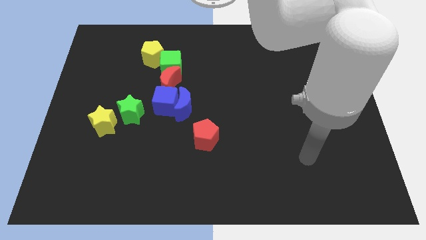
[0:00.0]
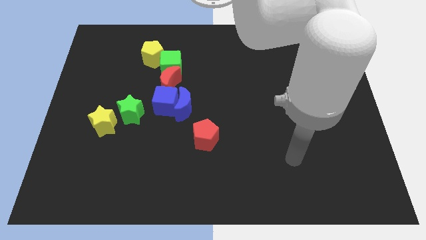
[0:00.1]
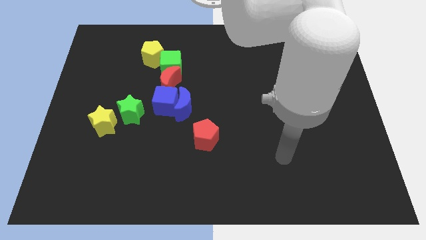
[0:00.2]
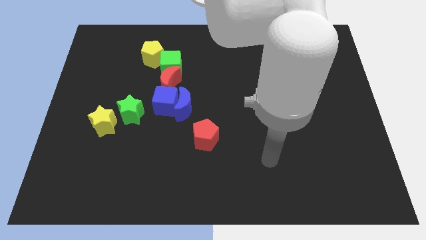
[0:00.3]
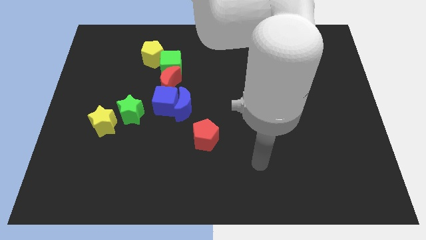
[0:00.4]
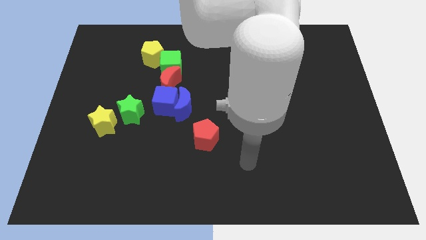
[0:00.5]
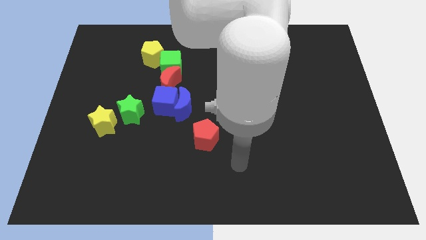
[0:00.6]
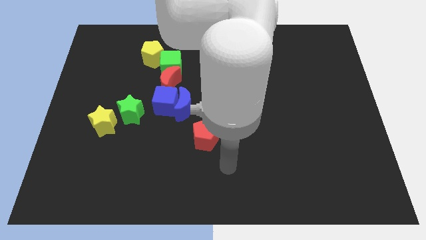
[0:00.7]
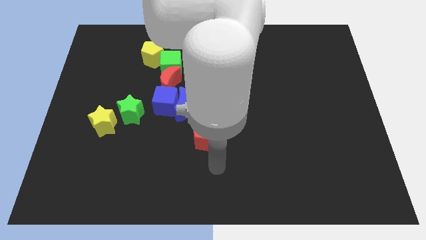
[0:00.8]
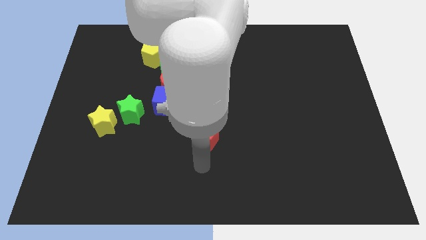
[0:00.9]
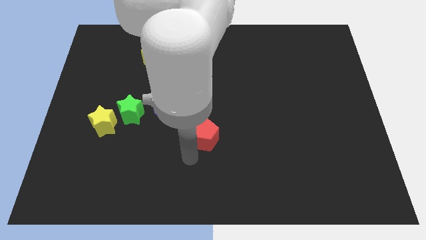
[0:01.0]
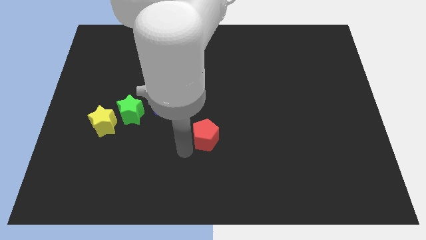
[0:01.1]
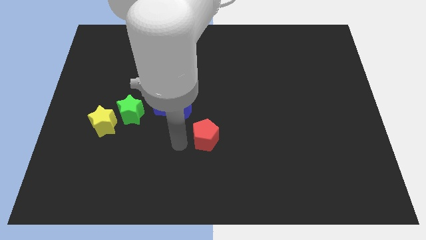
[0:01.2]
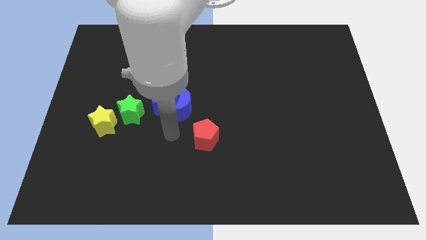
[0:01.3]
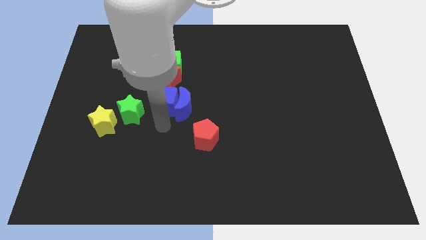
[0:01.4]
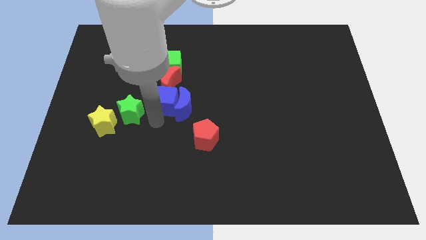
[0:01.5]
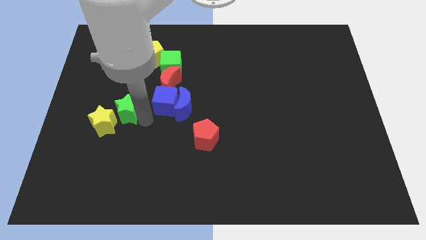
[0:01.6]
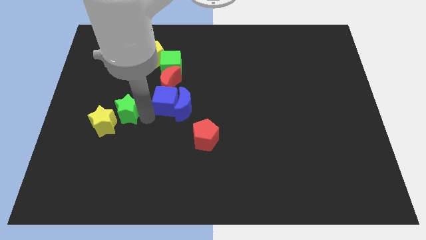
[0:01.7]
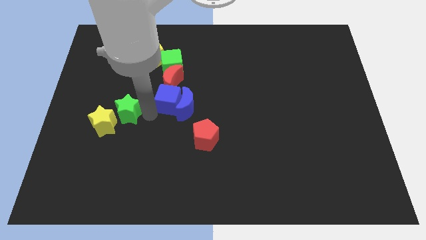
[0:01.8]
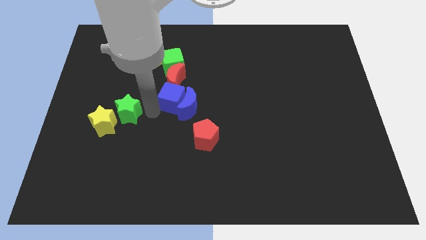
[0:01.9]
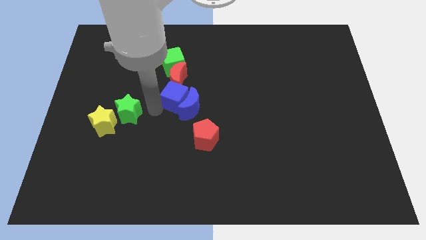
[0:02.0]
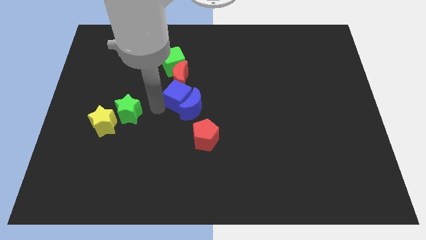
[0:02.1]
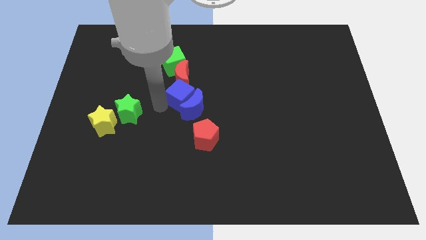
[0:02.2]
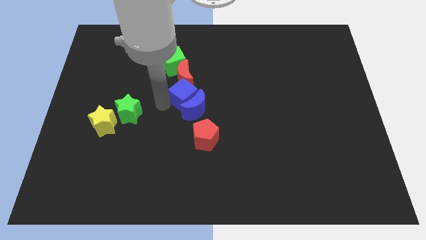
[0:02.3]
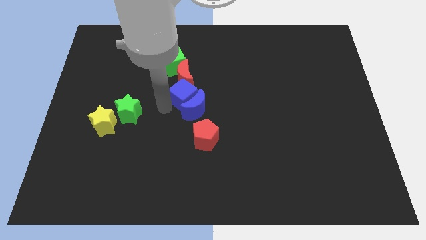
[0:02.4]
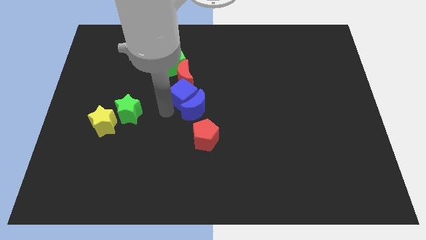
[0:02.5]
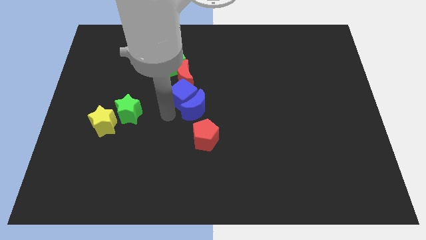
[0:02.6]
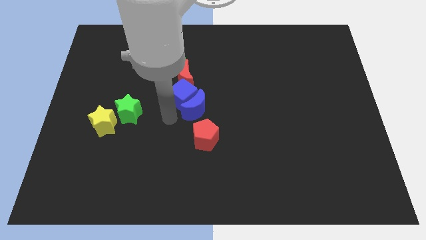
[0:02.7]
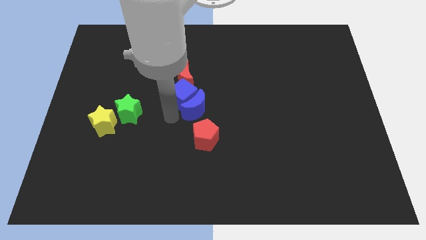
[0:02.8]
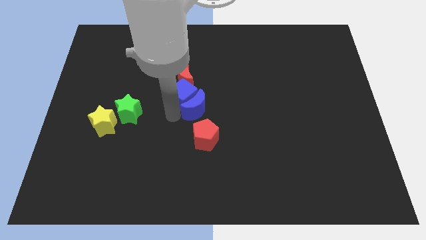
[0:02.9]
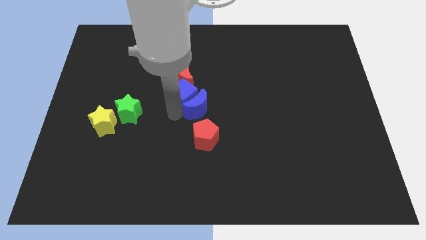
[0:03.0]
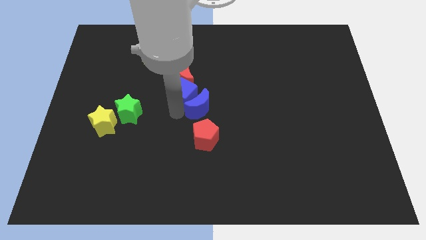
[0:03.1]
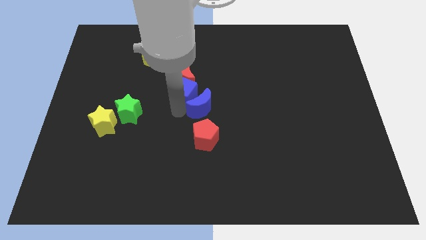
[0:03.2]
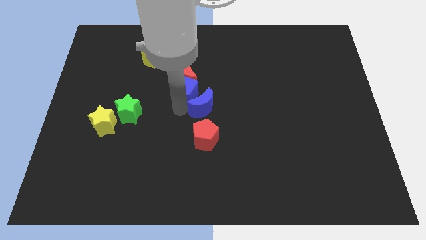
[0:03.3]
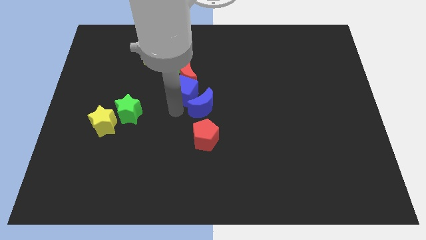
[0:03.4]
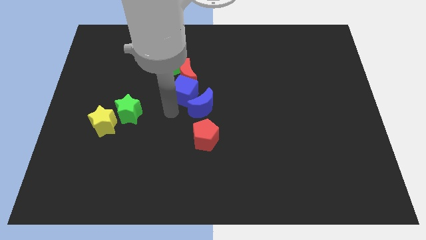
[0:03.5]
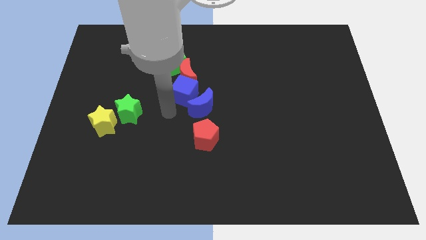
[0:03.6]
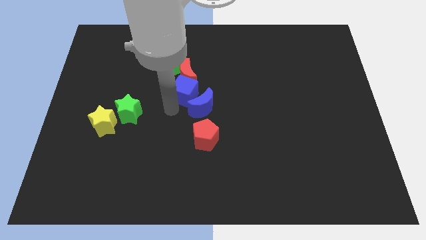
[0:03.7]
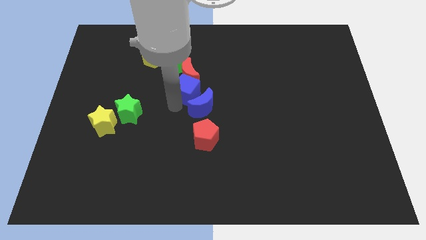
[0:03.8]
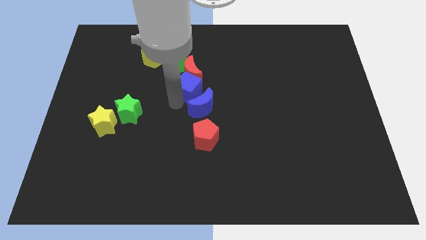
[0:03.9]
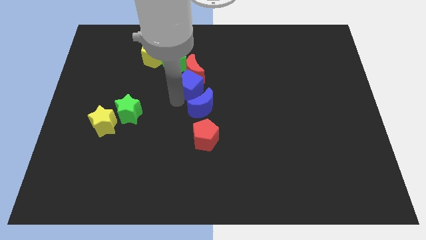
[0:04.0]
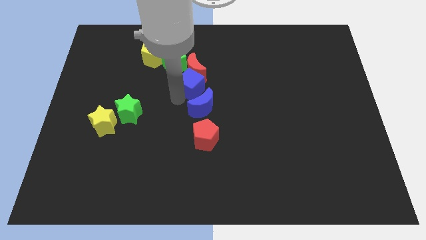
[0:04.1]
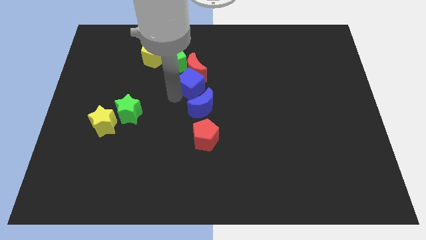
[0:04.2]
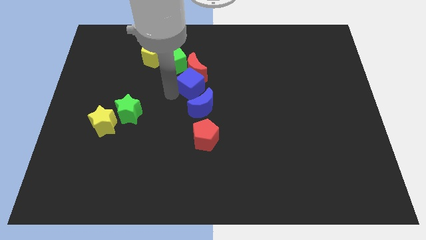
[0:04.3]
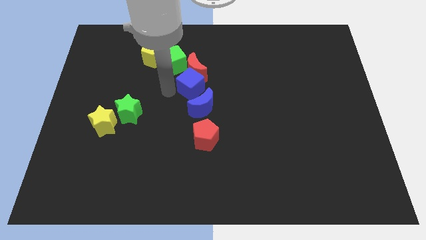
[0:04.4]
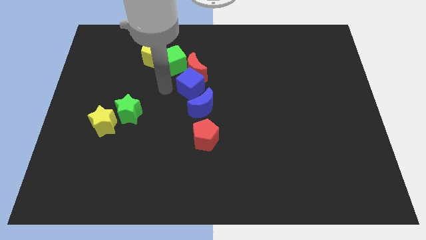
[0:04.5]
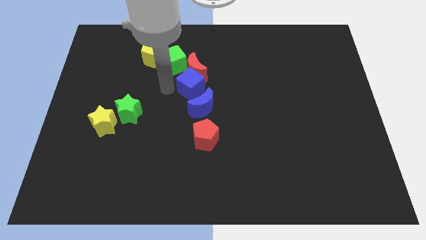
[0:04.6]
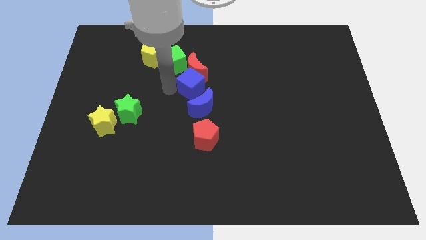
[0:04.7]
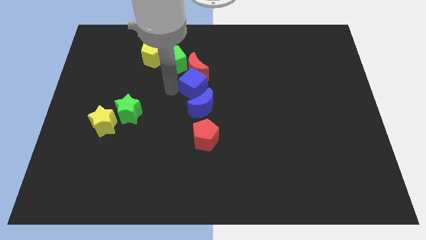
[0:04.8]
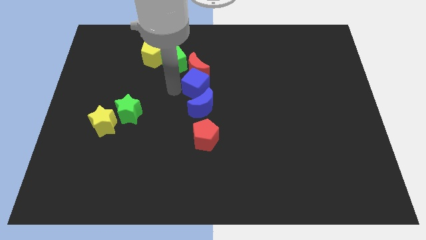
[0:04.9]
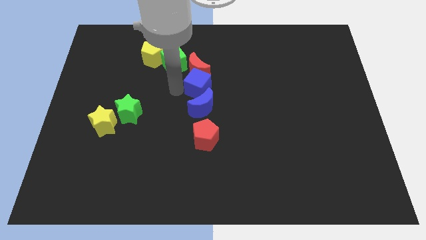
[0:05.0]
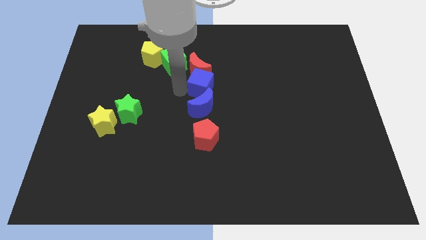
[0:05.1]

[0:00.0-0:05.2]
move the blue cube right a little

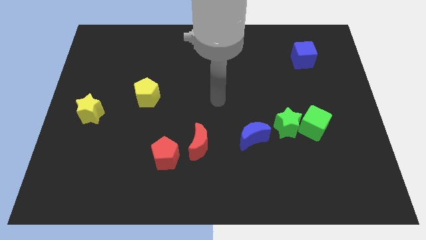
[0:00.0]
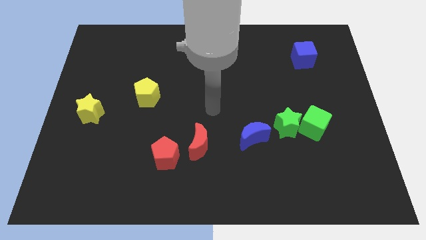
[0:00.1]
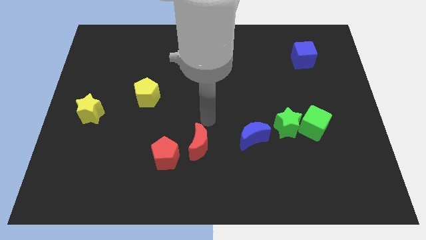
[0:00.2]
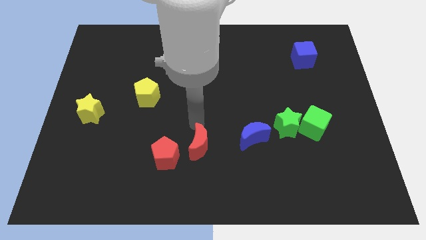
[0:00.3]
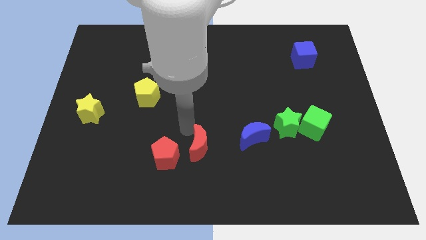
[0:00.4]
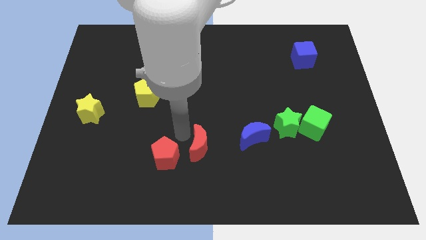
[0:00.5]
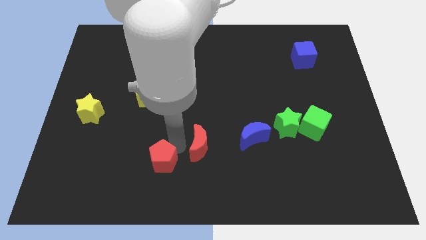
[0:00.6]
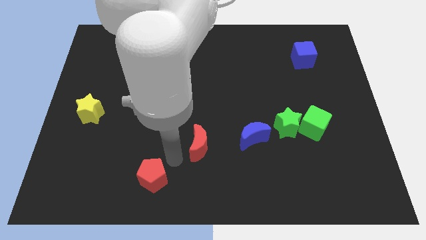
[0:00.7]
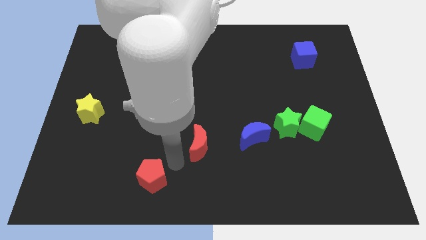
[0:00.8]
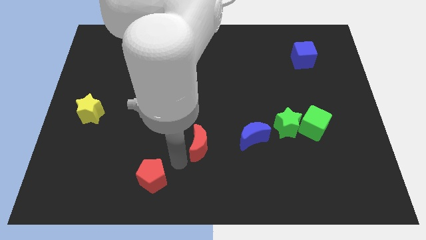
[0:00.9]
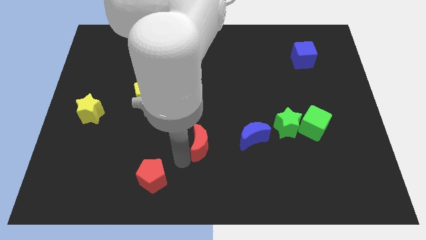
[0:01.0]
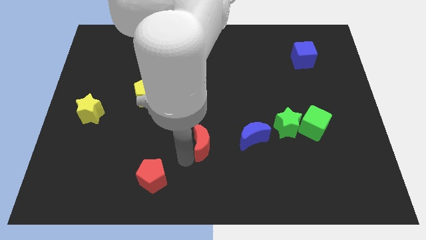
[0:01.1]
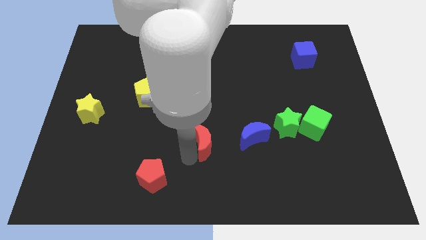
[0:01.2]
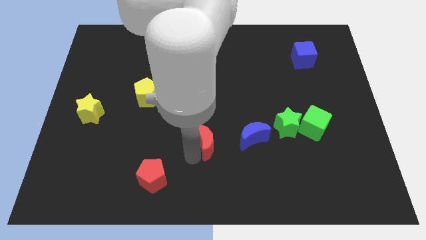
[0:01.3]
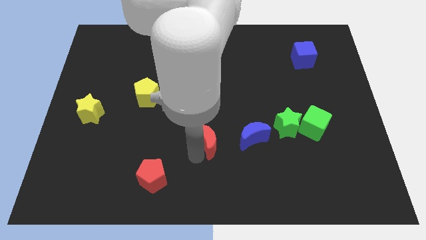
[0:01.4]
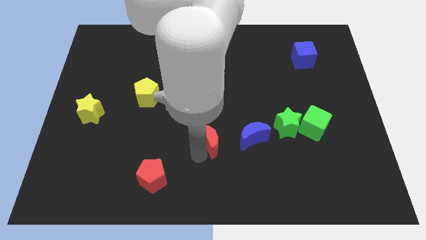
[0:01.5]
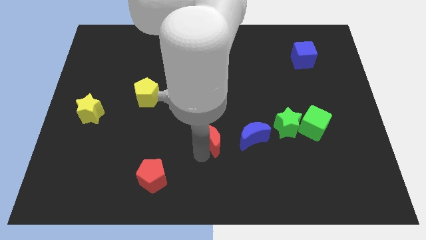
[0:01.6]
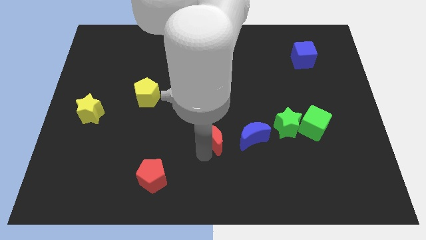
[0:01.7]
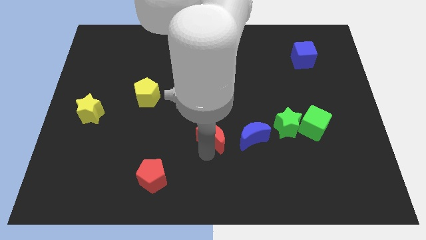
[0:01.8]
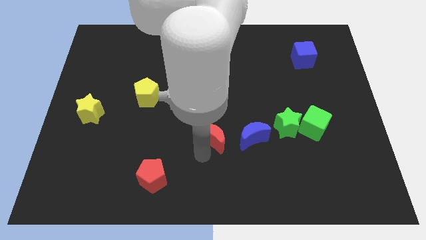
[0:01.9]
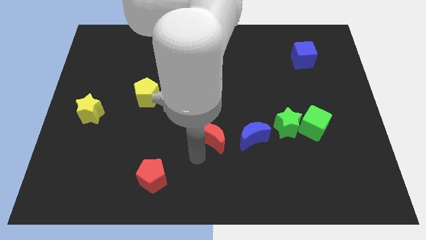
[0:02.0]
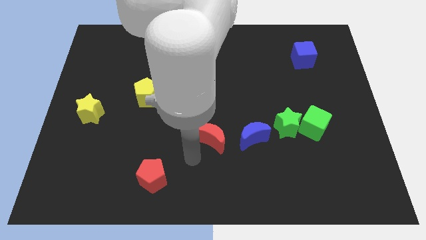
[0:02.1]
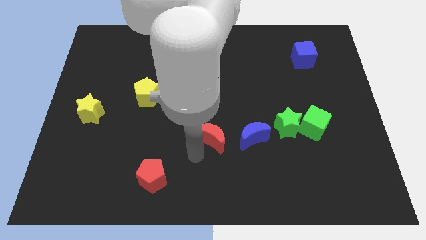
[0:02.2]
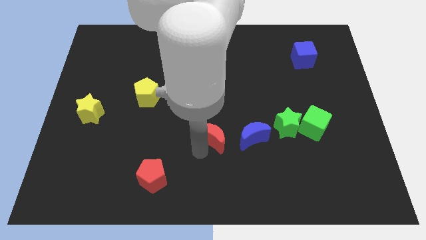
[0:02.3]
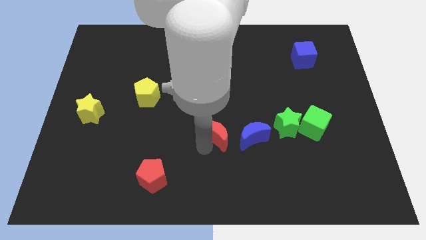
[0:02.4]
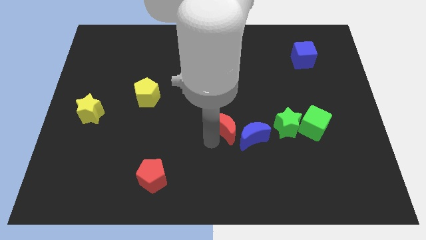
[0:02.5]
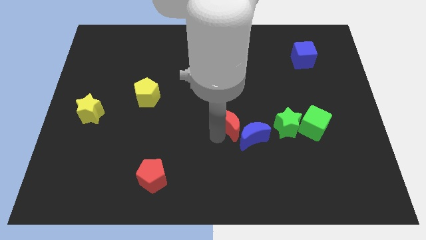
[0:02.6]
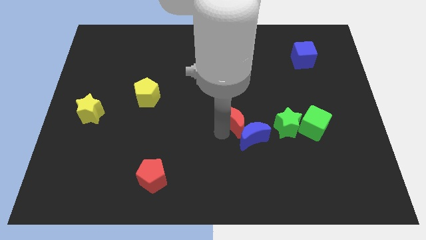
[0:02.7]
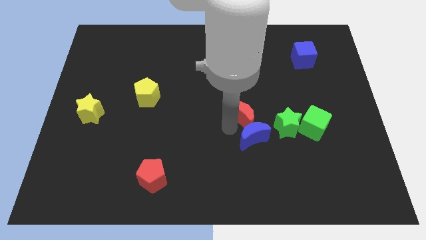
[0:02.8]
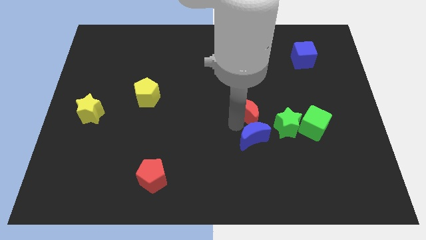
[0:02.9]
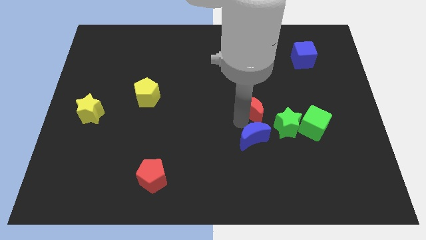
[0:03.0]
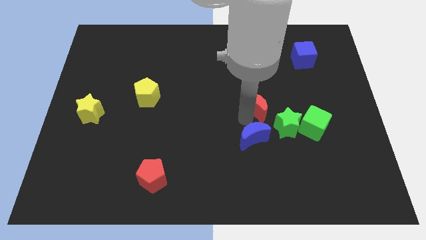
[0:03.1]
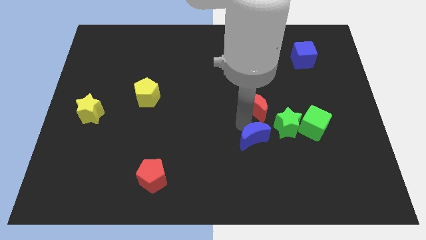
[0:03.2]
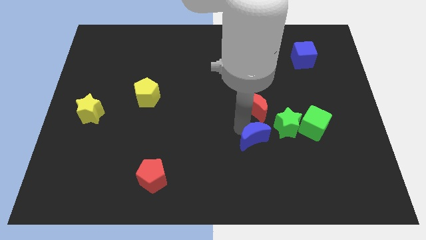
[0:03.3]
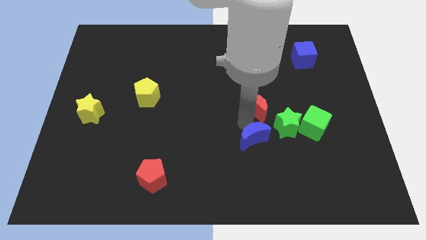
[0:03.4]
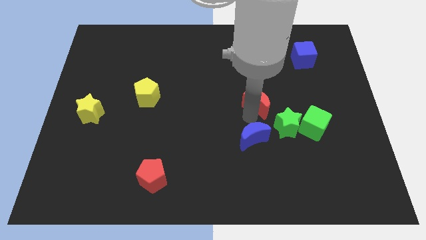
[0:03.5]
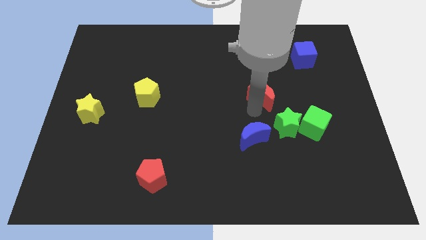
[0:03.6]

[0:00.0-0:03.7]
push the red moon diagonally up and right
